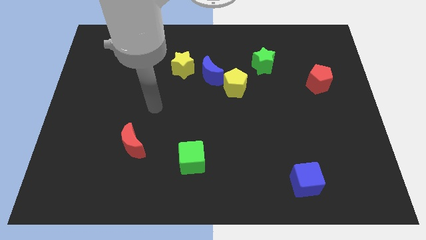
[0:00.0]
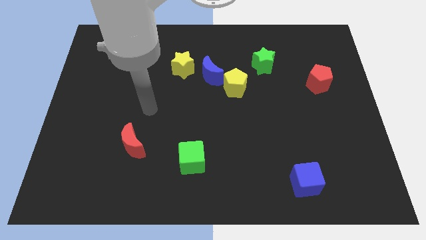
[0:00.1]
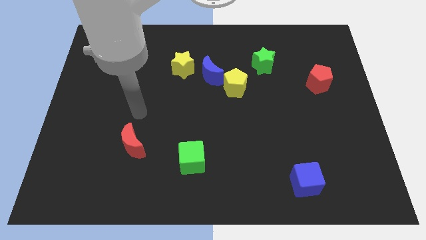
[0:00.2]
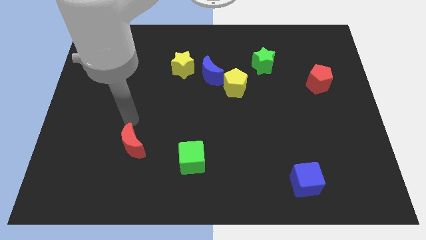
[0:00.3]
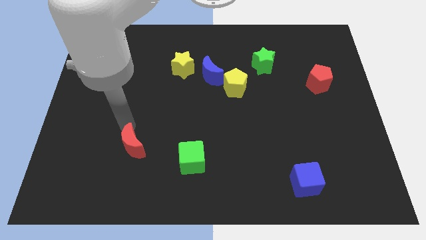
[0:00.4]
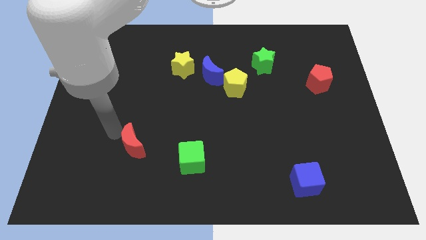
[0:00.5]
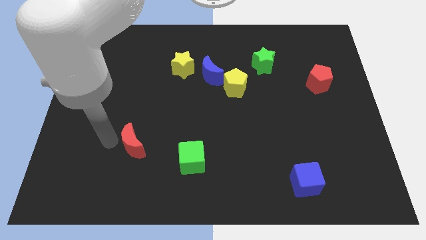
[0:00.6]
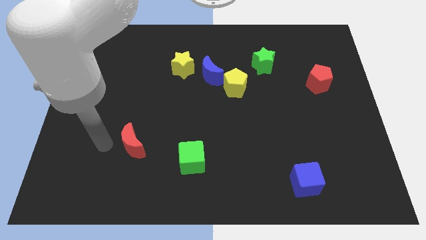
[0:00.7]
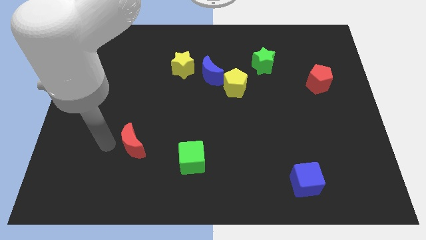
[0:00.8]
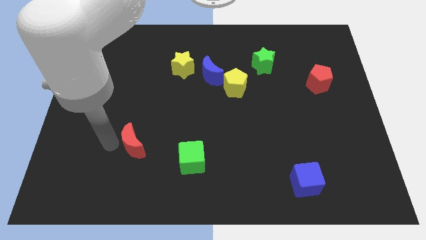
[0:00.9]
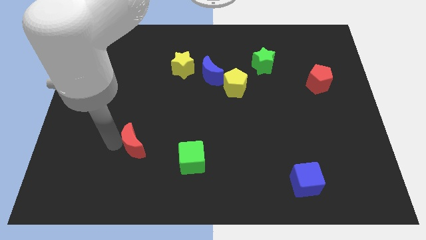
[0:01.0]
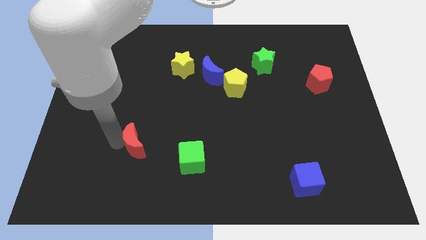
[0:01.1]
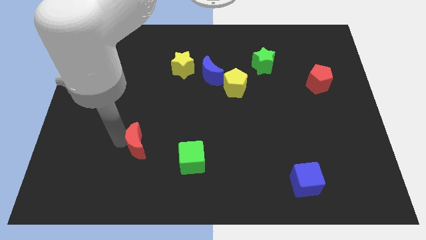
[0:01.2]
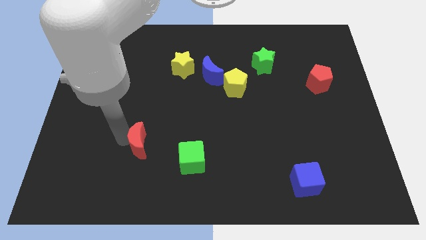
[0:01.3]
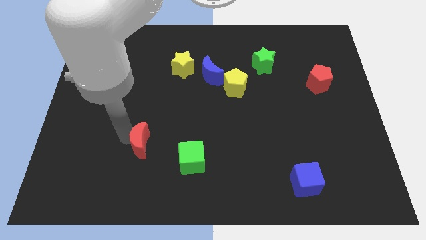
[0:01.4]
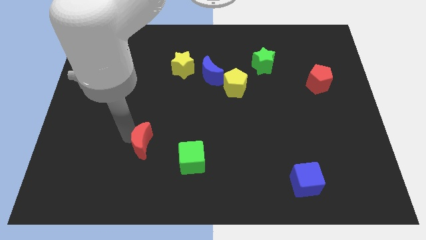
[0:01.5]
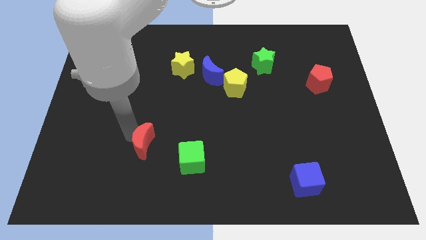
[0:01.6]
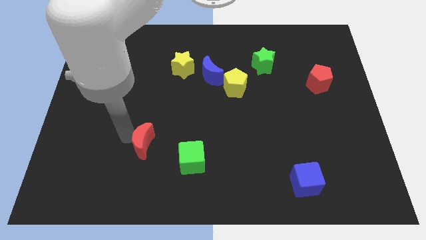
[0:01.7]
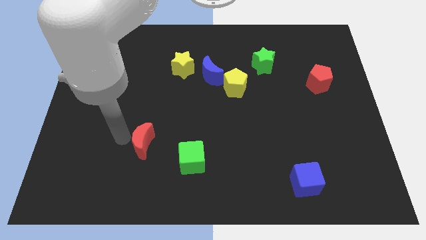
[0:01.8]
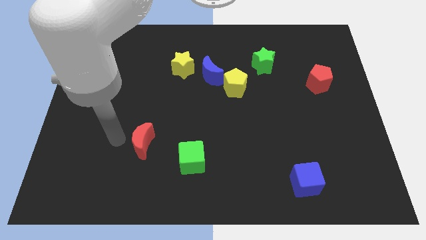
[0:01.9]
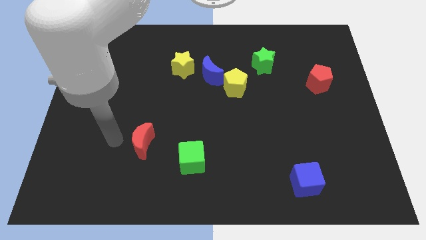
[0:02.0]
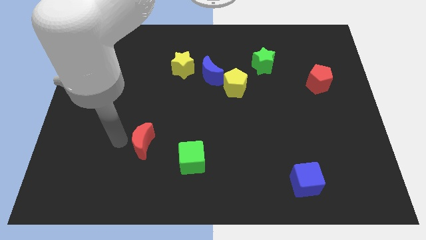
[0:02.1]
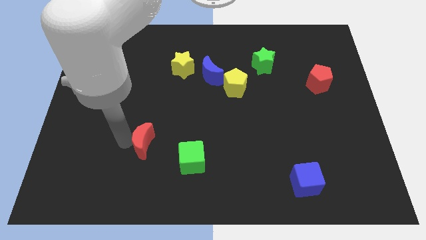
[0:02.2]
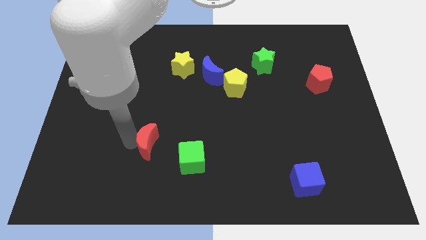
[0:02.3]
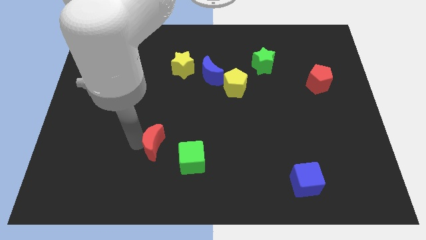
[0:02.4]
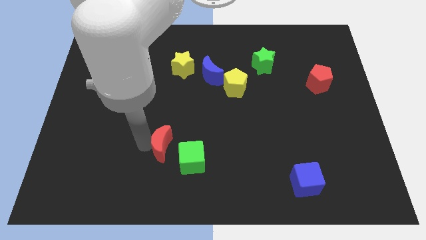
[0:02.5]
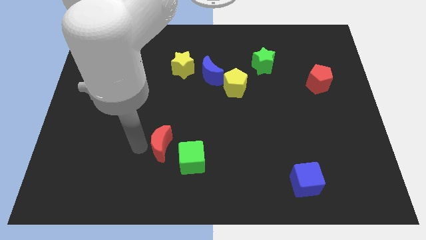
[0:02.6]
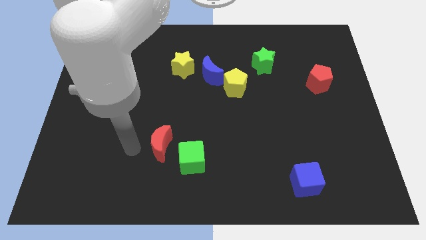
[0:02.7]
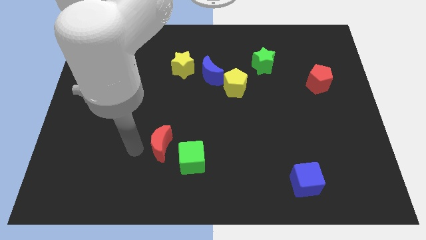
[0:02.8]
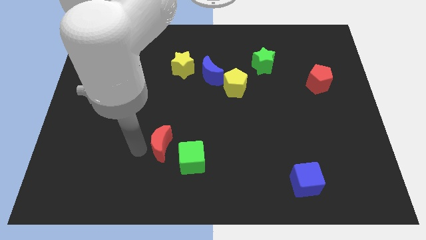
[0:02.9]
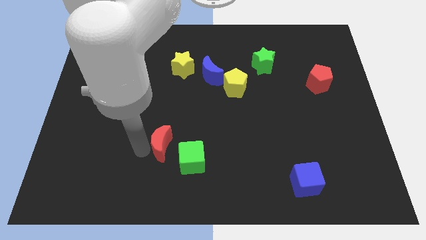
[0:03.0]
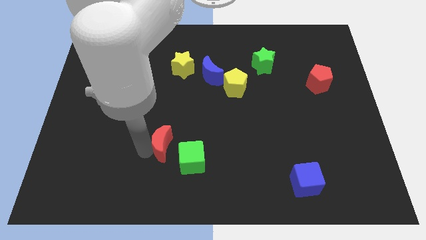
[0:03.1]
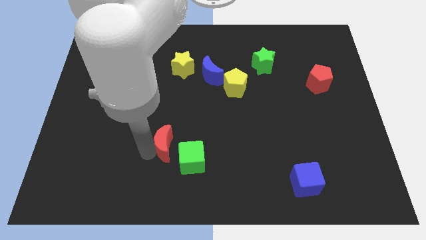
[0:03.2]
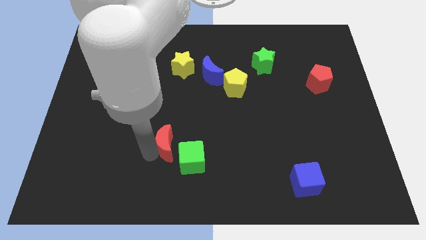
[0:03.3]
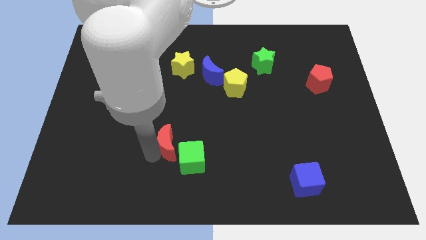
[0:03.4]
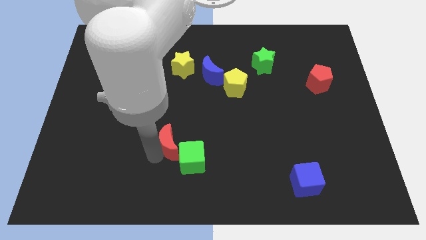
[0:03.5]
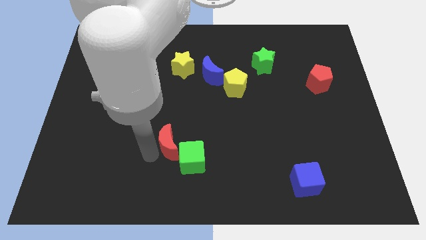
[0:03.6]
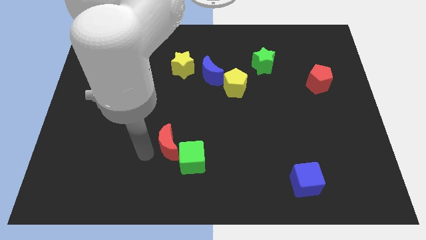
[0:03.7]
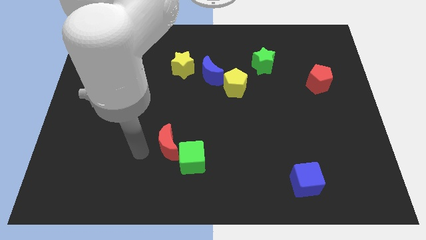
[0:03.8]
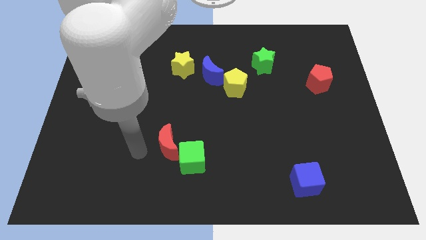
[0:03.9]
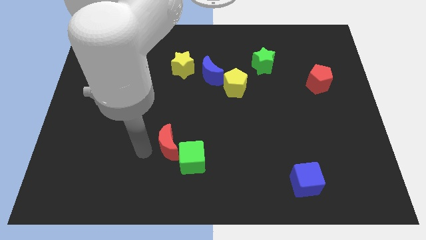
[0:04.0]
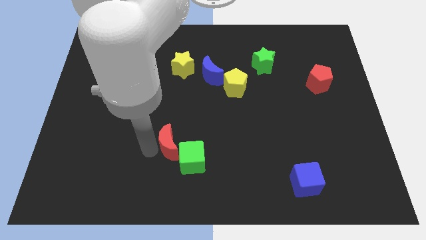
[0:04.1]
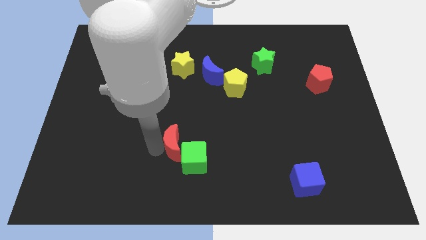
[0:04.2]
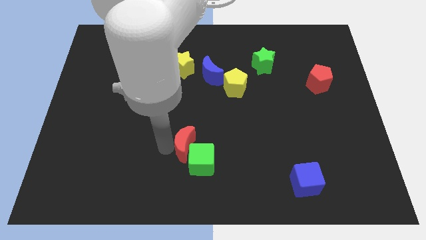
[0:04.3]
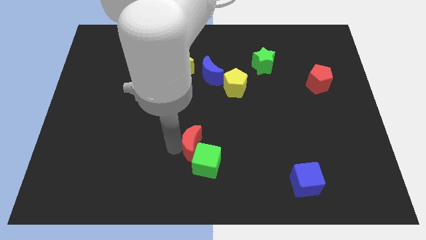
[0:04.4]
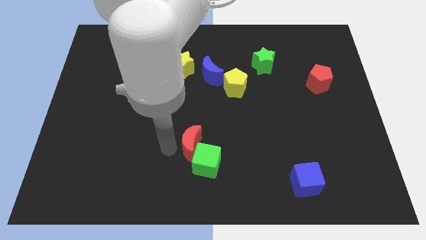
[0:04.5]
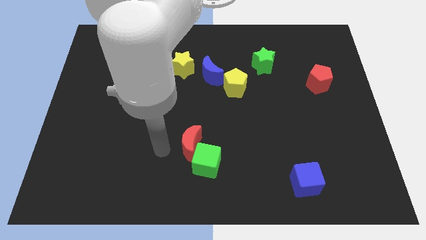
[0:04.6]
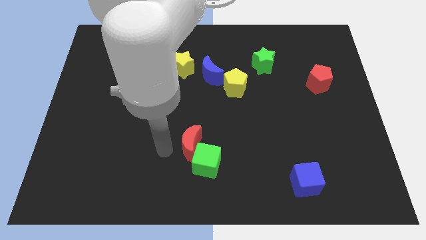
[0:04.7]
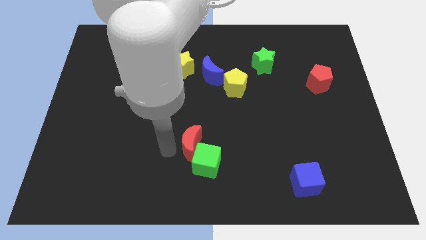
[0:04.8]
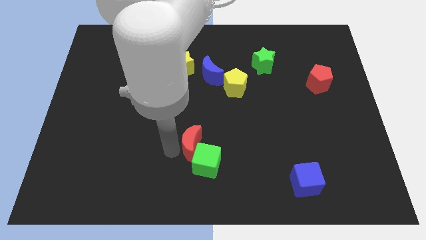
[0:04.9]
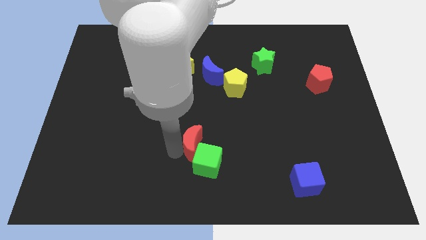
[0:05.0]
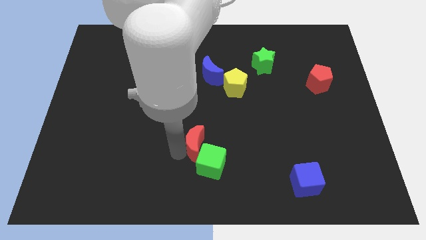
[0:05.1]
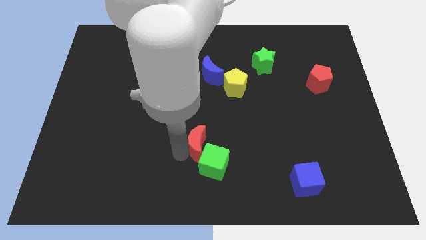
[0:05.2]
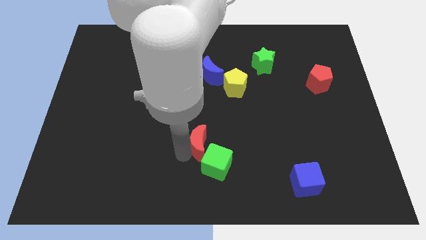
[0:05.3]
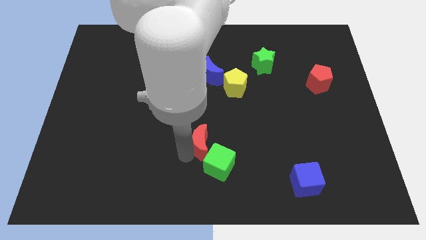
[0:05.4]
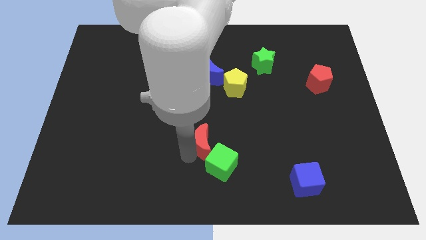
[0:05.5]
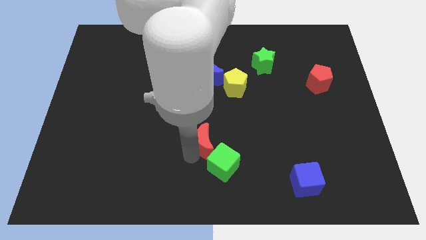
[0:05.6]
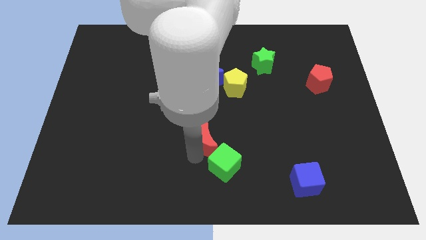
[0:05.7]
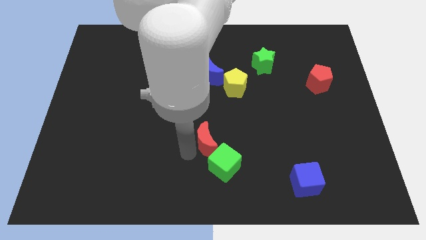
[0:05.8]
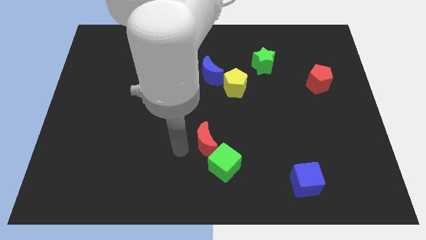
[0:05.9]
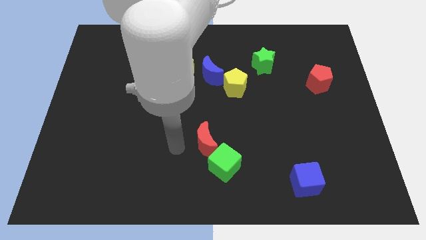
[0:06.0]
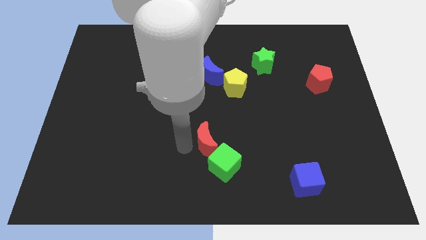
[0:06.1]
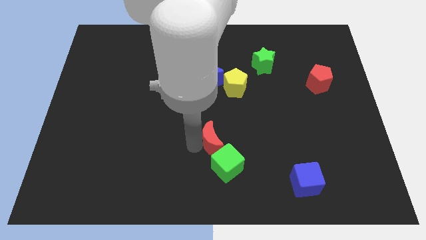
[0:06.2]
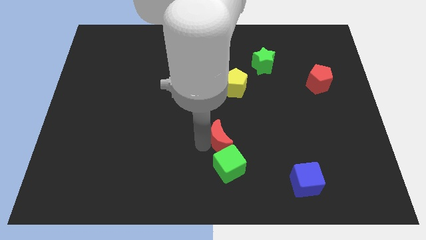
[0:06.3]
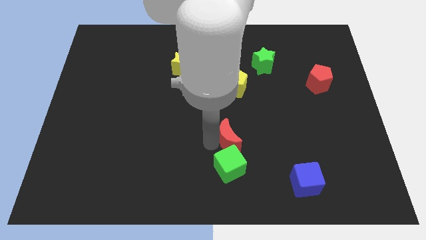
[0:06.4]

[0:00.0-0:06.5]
push the red moon to the right

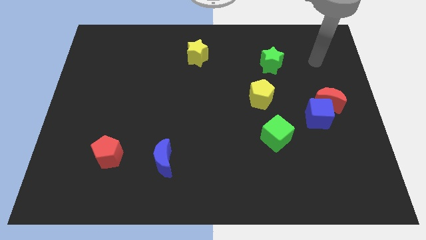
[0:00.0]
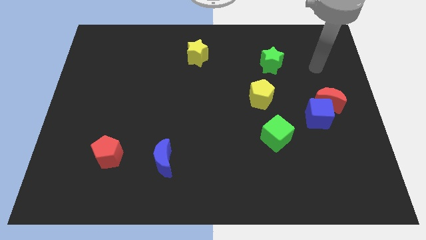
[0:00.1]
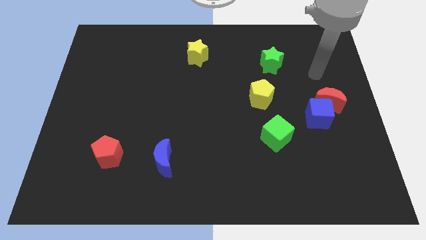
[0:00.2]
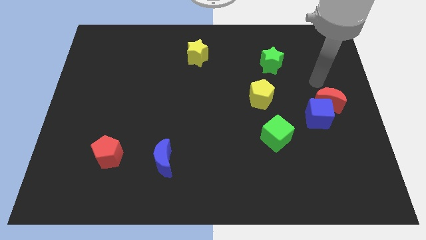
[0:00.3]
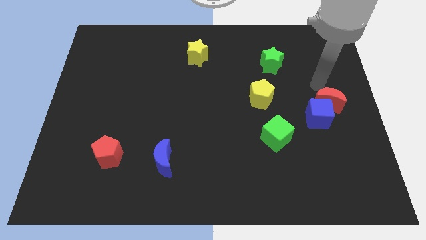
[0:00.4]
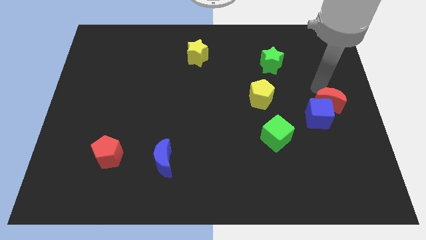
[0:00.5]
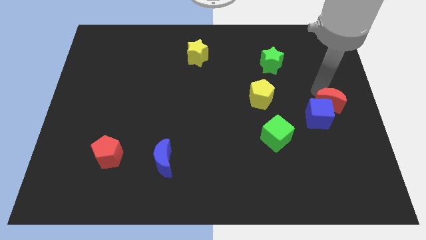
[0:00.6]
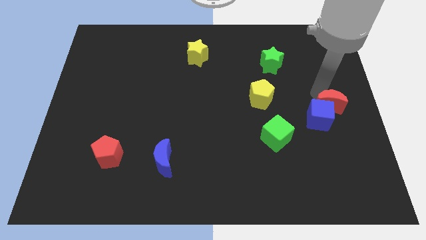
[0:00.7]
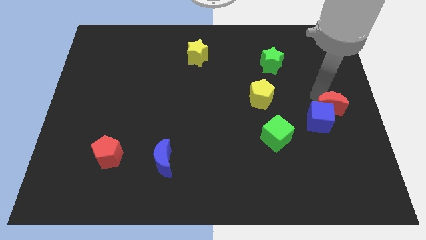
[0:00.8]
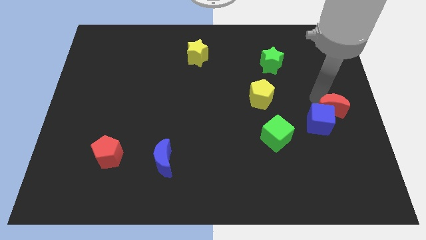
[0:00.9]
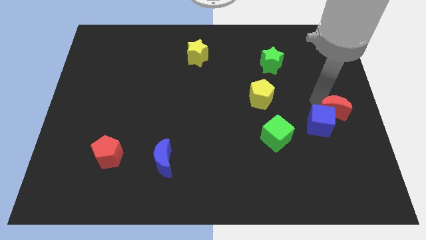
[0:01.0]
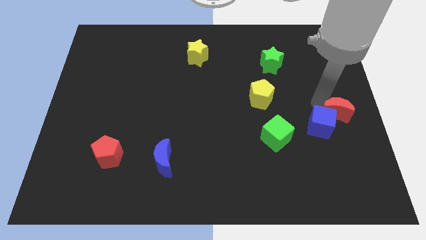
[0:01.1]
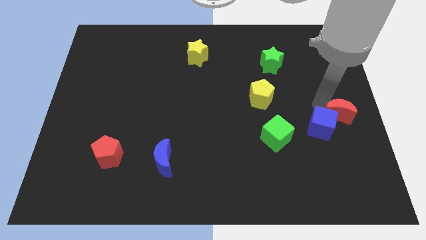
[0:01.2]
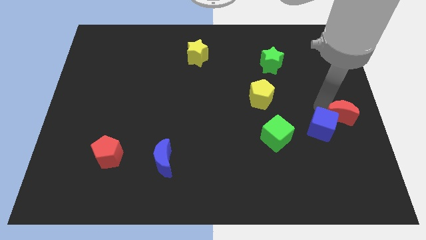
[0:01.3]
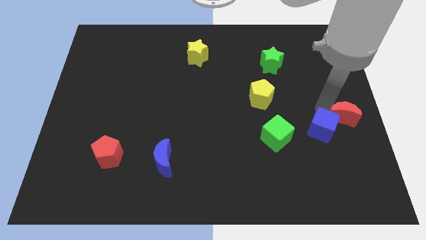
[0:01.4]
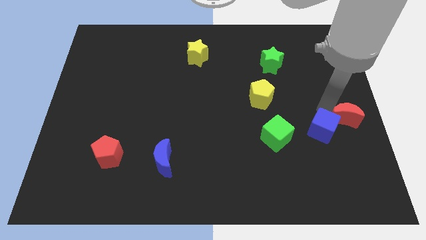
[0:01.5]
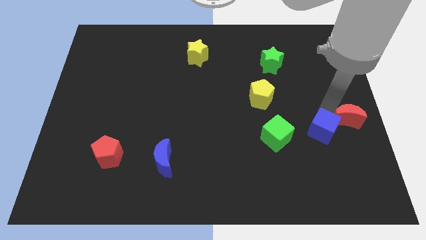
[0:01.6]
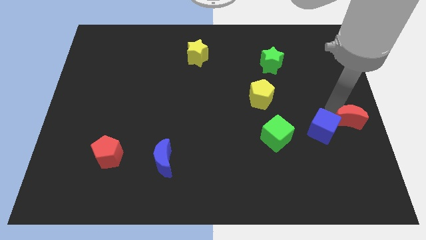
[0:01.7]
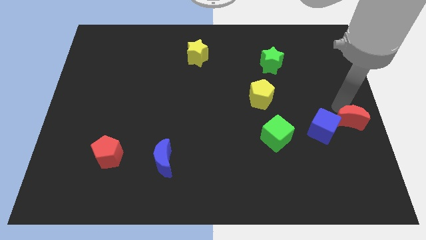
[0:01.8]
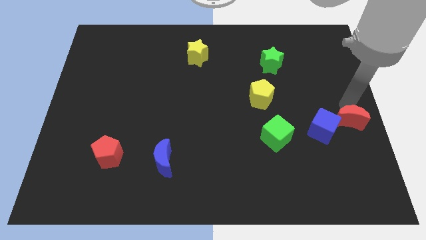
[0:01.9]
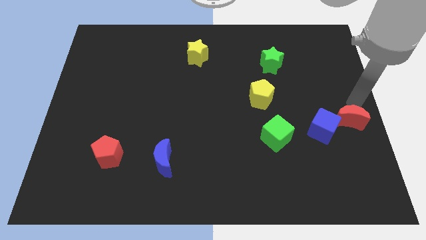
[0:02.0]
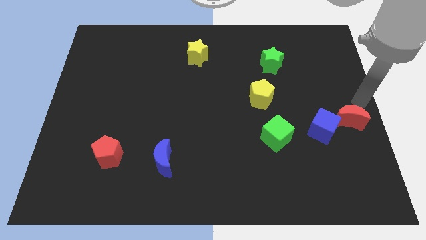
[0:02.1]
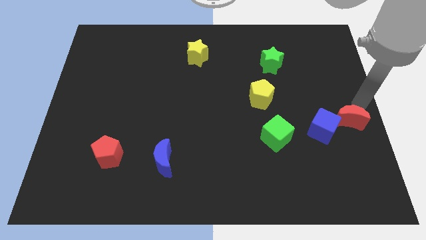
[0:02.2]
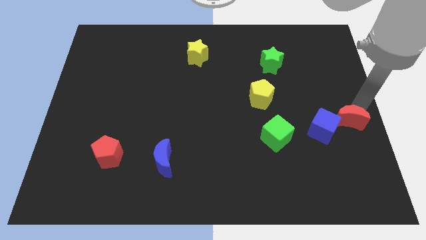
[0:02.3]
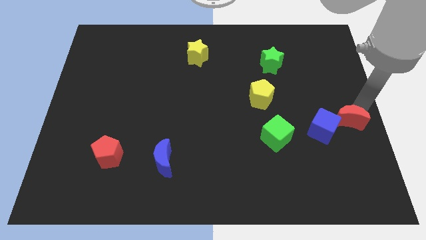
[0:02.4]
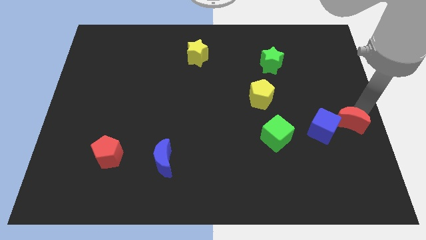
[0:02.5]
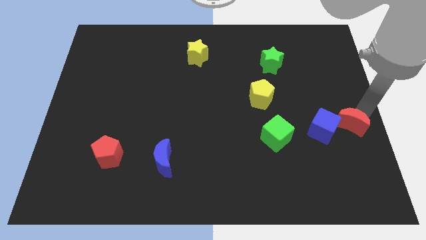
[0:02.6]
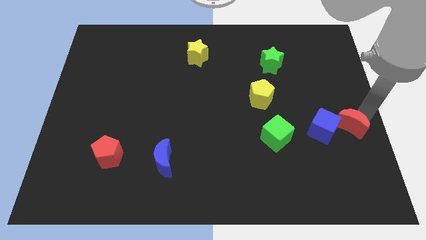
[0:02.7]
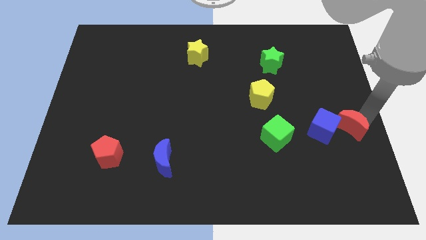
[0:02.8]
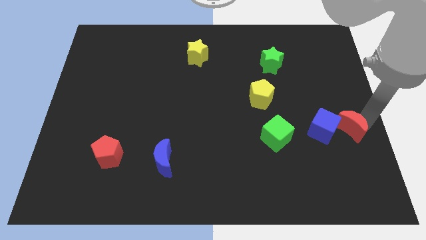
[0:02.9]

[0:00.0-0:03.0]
slightly slide the red moon down
